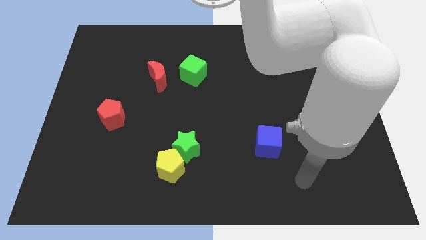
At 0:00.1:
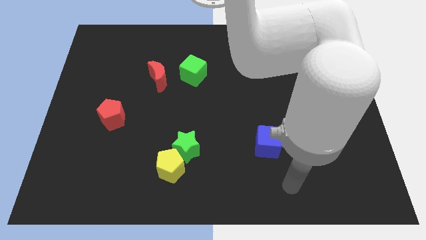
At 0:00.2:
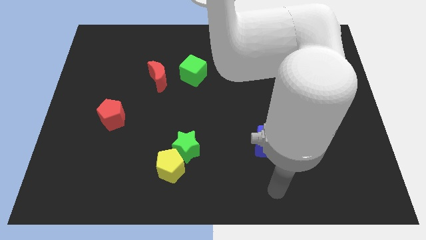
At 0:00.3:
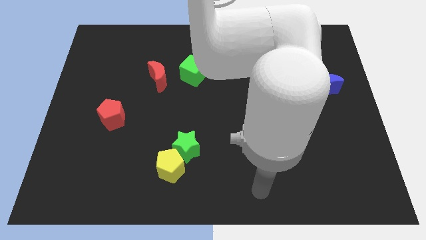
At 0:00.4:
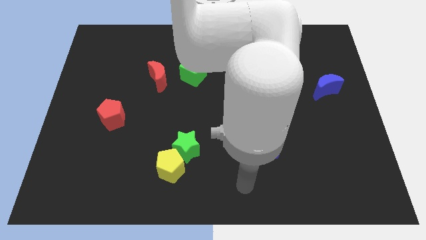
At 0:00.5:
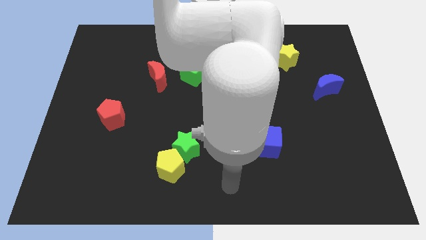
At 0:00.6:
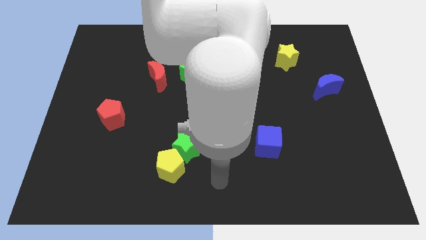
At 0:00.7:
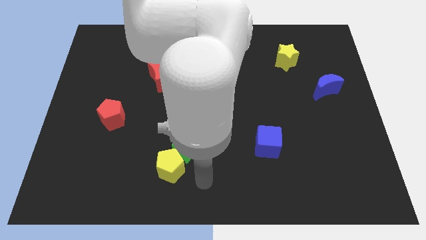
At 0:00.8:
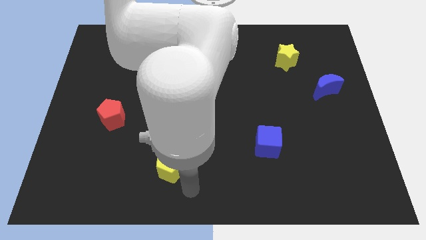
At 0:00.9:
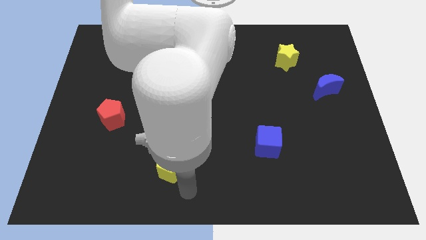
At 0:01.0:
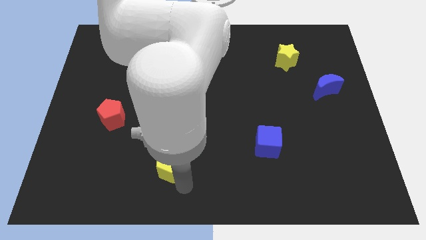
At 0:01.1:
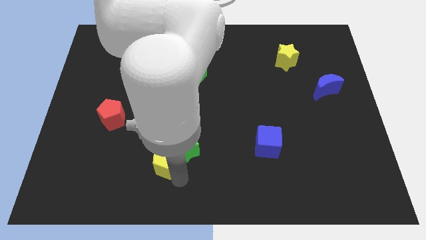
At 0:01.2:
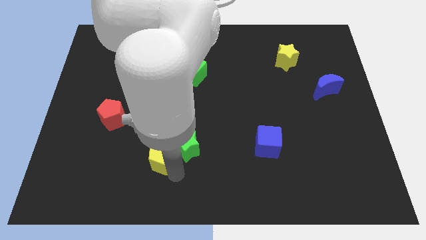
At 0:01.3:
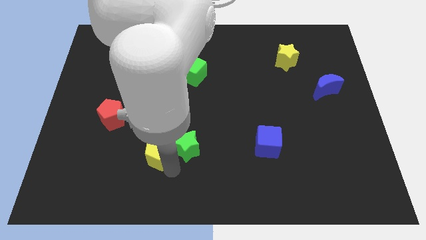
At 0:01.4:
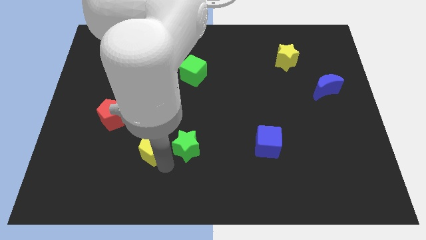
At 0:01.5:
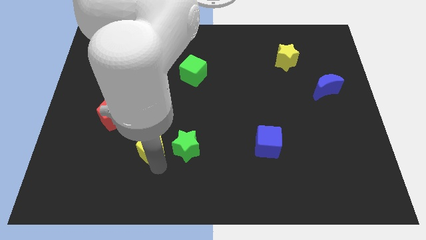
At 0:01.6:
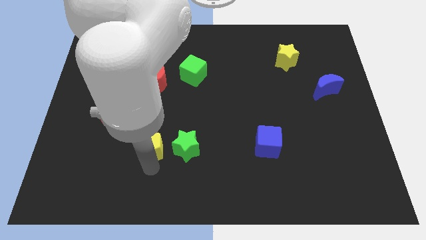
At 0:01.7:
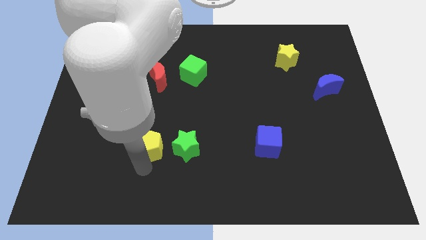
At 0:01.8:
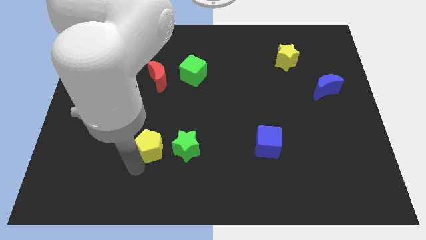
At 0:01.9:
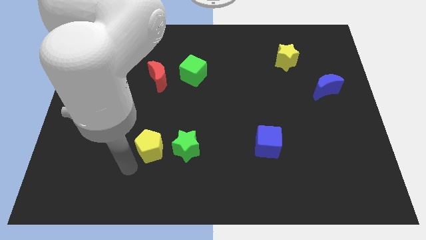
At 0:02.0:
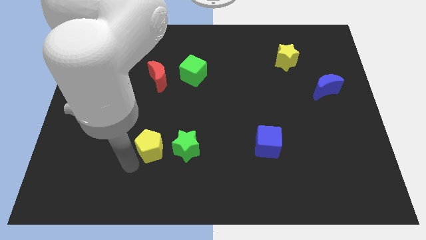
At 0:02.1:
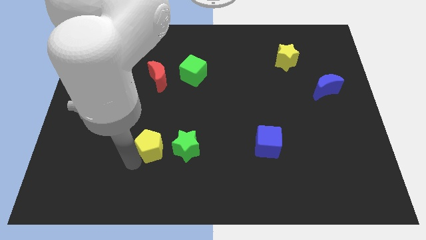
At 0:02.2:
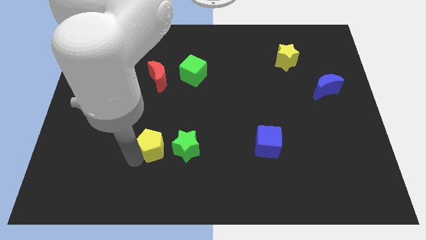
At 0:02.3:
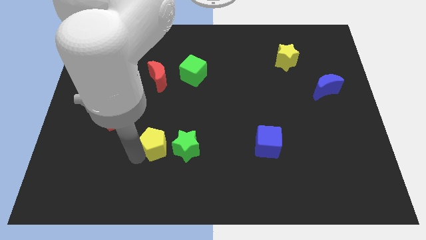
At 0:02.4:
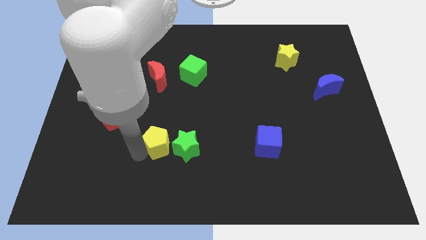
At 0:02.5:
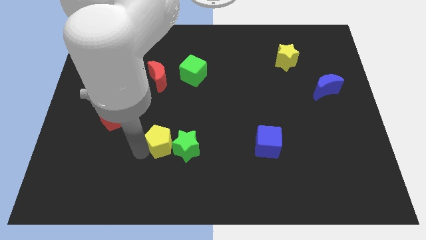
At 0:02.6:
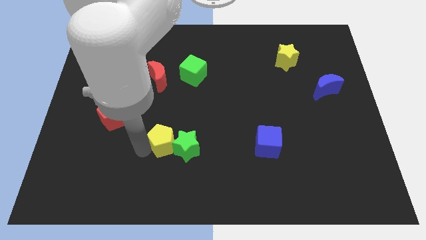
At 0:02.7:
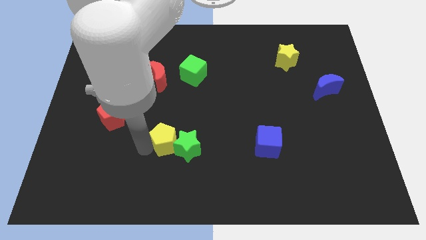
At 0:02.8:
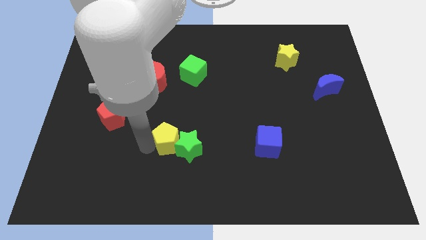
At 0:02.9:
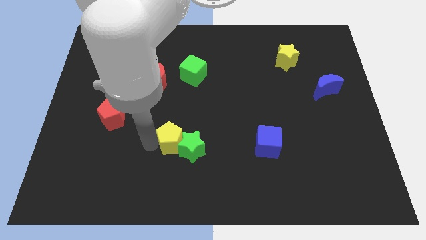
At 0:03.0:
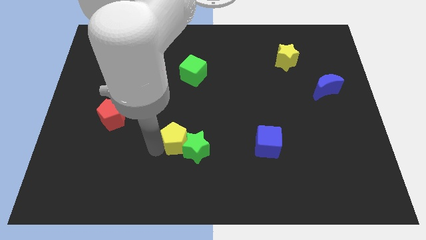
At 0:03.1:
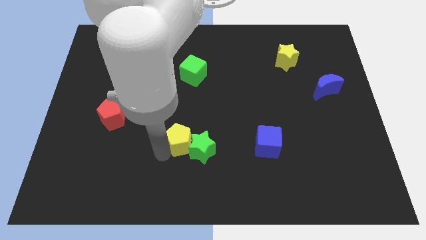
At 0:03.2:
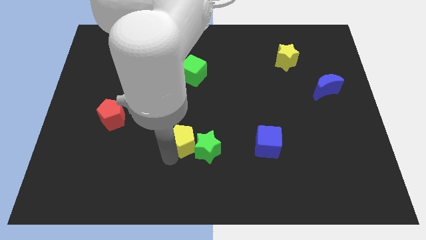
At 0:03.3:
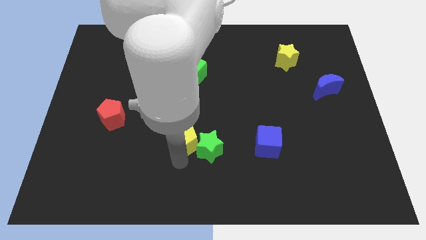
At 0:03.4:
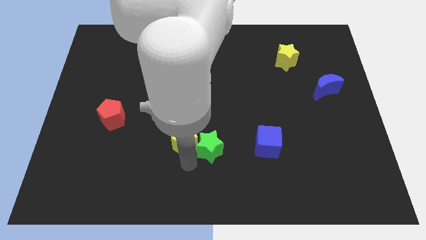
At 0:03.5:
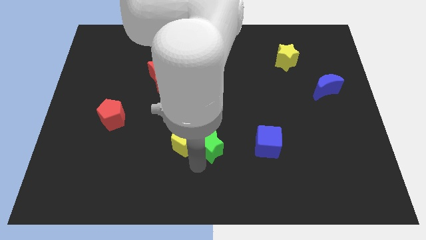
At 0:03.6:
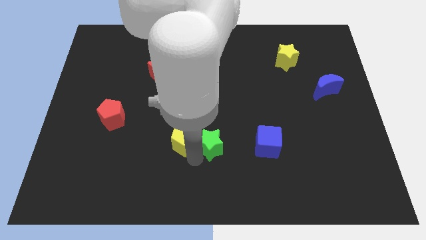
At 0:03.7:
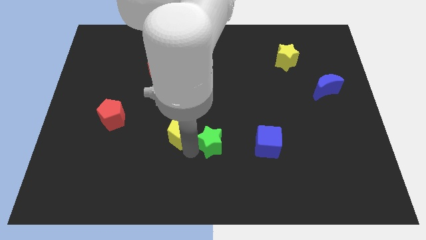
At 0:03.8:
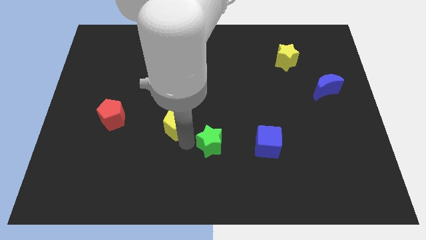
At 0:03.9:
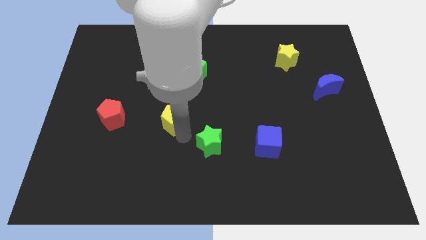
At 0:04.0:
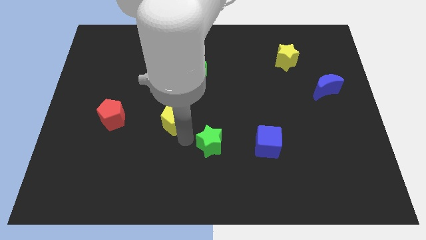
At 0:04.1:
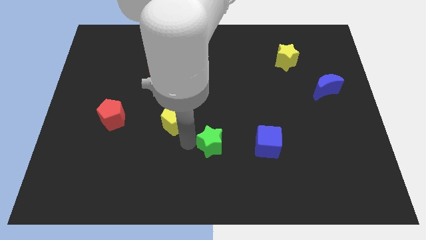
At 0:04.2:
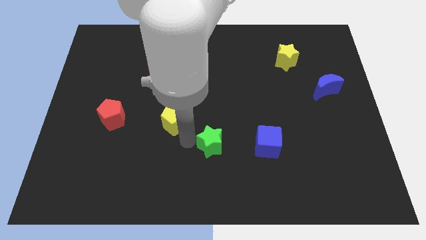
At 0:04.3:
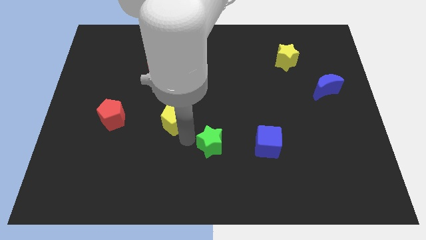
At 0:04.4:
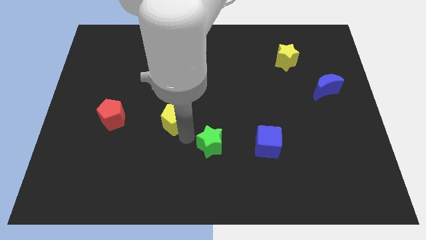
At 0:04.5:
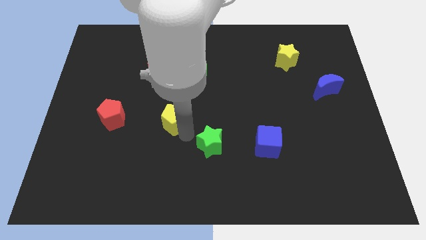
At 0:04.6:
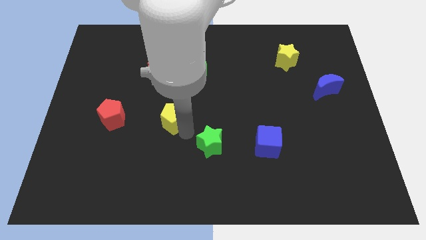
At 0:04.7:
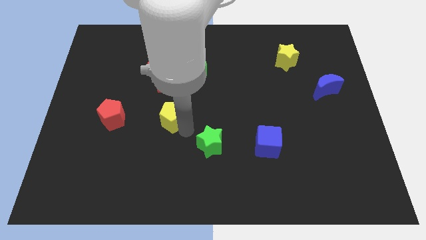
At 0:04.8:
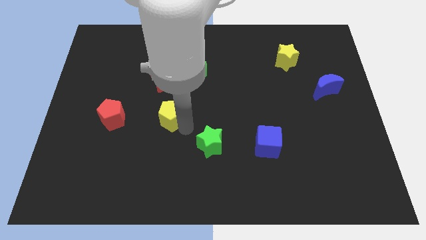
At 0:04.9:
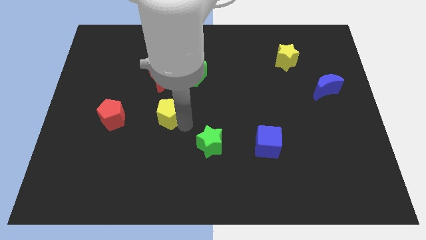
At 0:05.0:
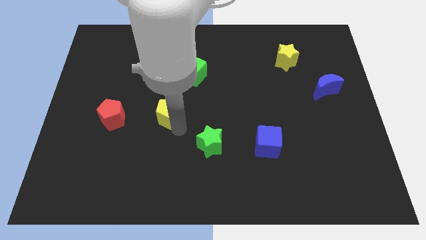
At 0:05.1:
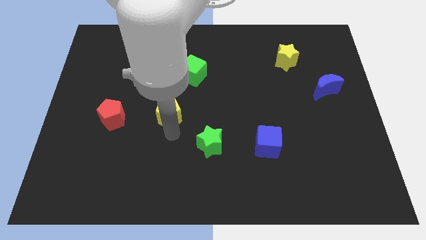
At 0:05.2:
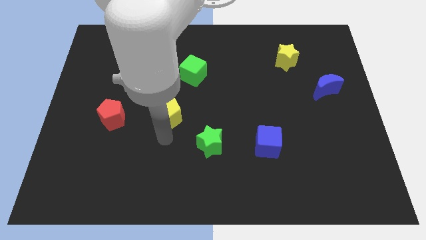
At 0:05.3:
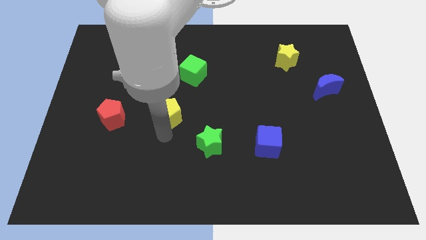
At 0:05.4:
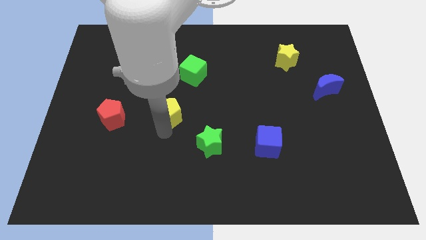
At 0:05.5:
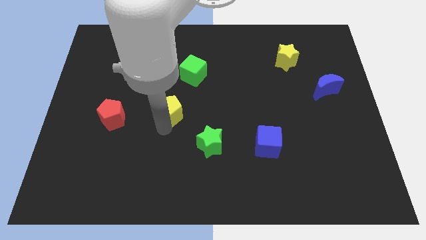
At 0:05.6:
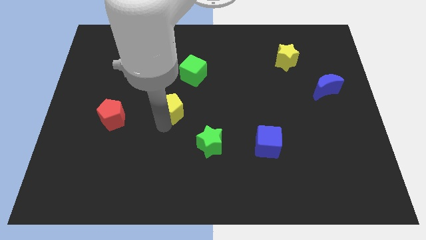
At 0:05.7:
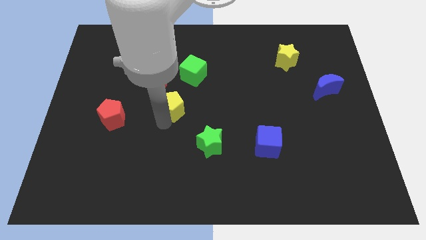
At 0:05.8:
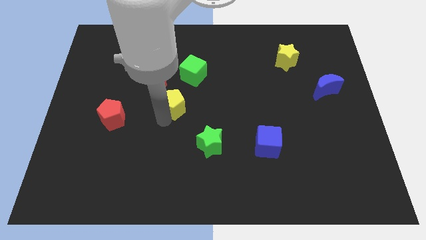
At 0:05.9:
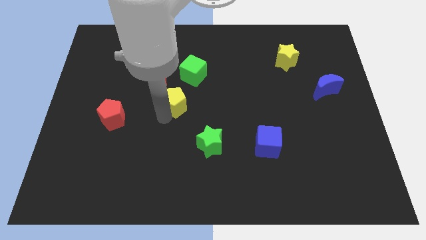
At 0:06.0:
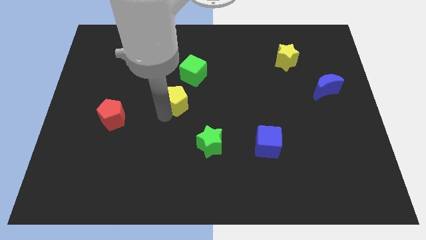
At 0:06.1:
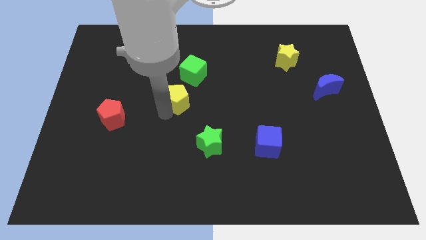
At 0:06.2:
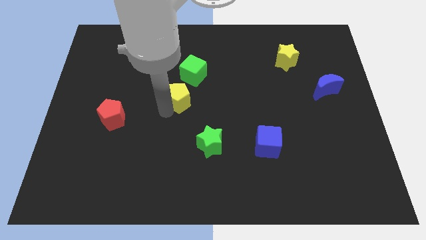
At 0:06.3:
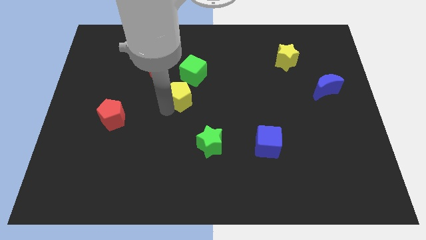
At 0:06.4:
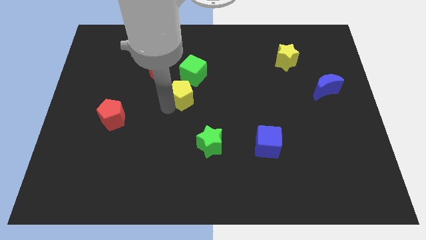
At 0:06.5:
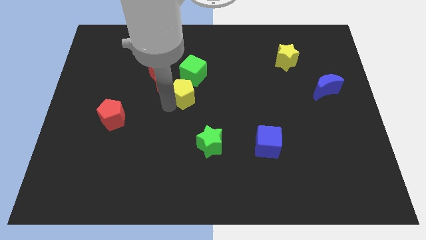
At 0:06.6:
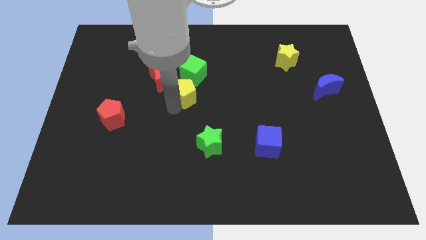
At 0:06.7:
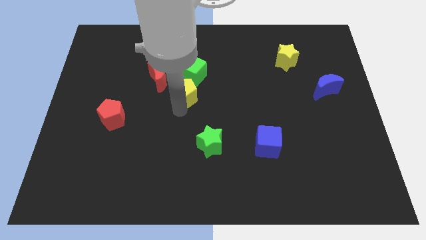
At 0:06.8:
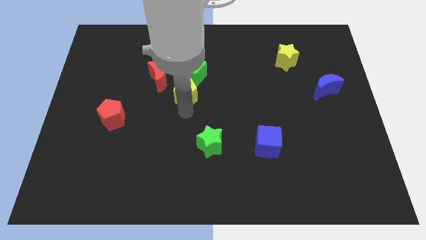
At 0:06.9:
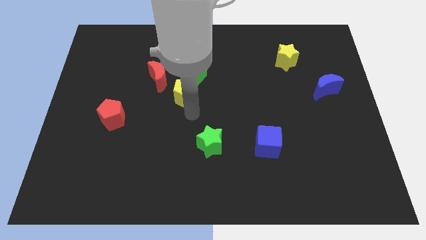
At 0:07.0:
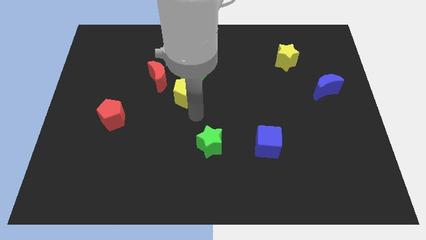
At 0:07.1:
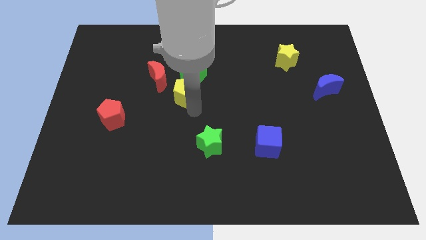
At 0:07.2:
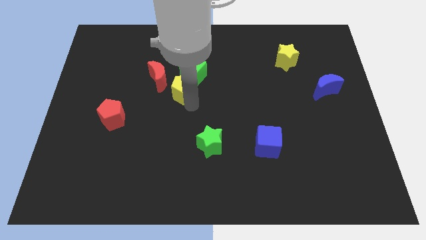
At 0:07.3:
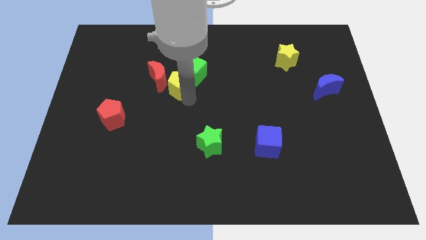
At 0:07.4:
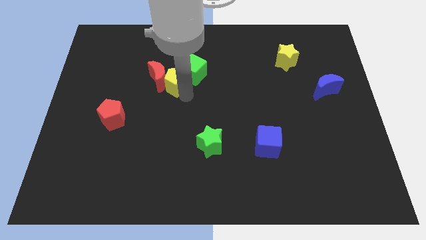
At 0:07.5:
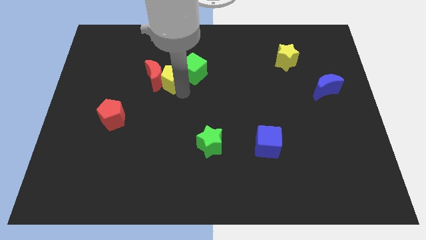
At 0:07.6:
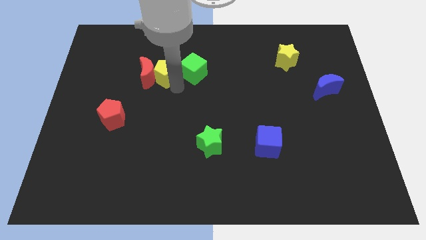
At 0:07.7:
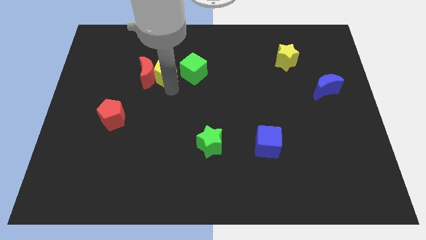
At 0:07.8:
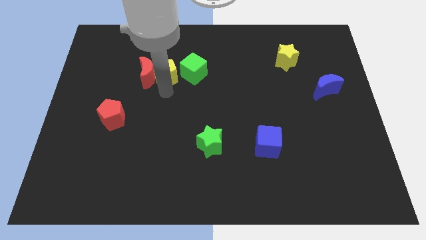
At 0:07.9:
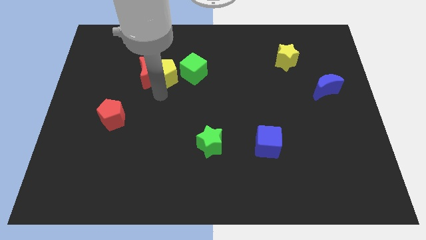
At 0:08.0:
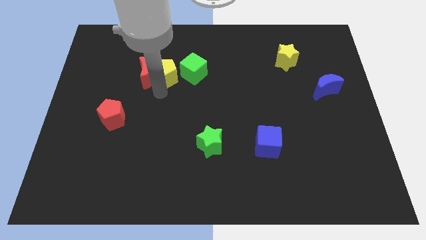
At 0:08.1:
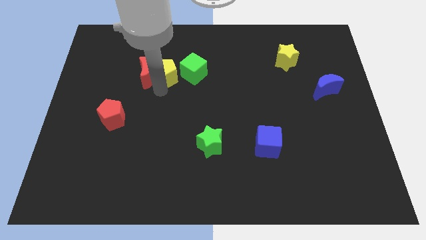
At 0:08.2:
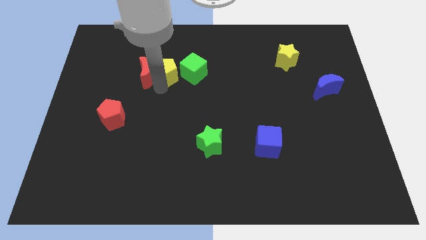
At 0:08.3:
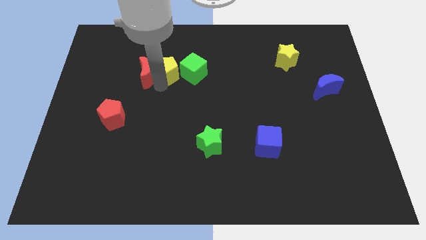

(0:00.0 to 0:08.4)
move the yellow pentagon to the top left side of the green cube
